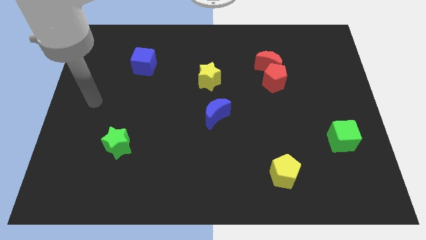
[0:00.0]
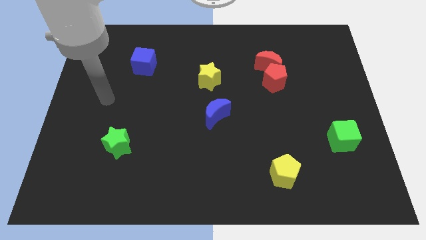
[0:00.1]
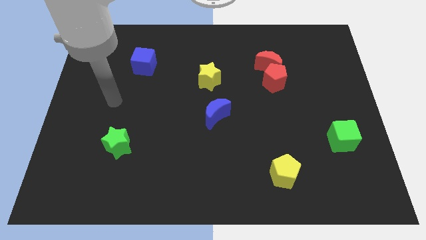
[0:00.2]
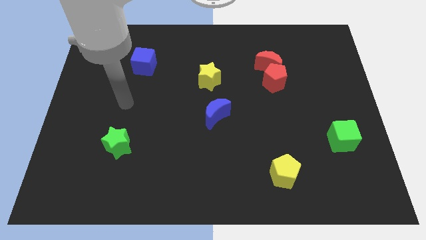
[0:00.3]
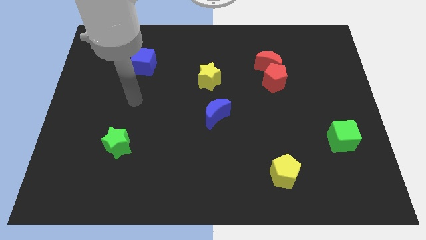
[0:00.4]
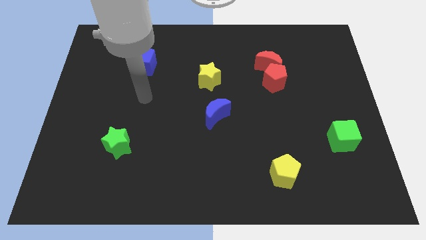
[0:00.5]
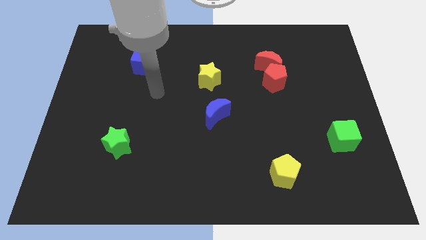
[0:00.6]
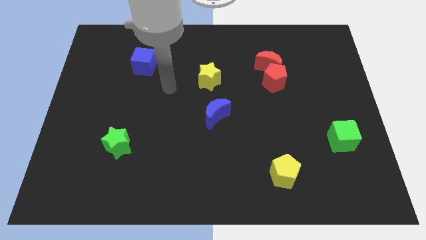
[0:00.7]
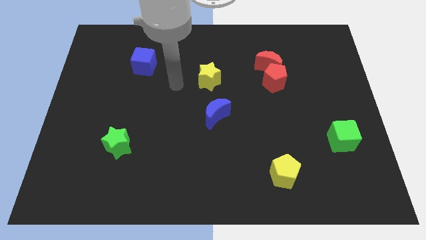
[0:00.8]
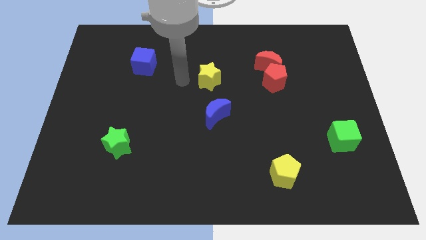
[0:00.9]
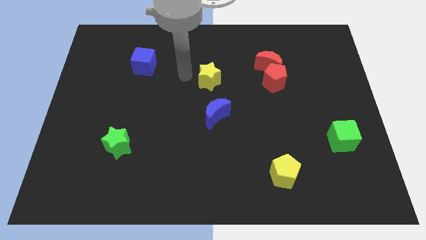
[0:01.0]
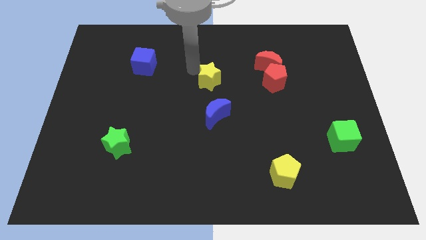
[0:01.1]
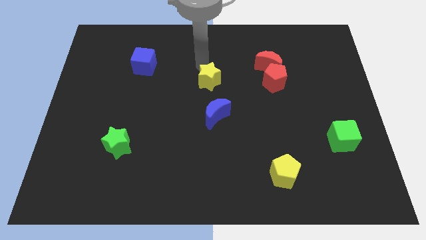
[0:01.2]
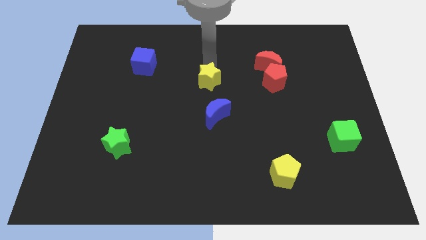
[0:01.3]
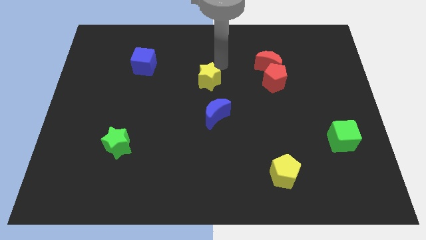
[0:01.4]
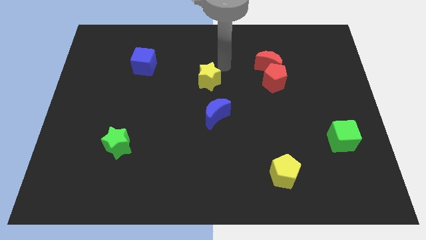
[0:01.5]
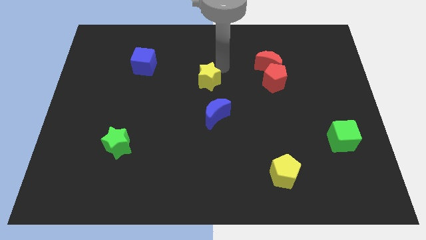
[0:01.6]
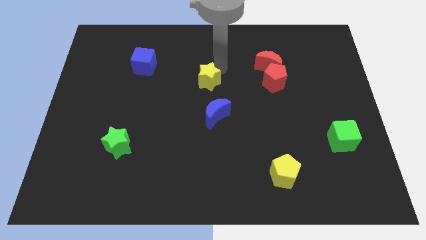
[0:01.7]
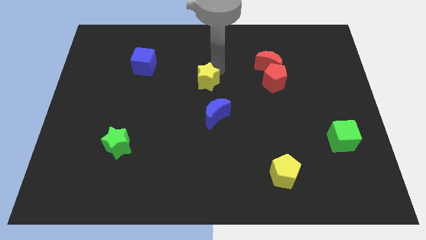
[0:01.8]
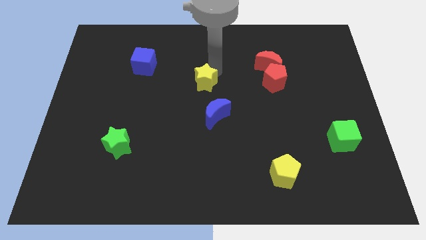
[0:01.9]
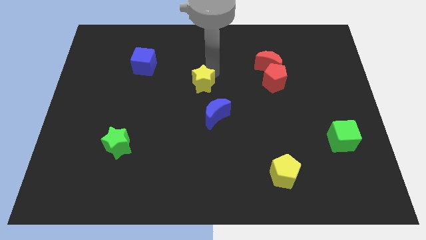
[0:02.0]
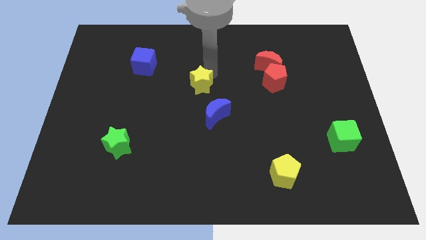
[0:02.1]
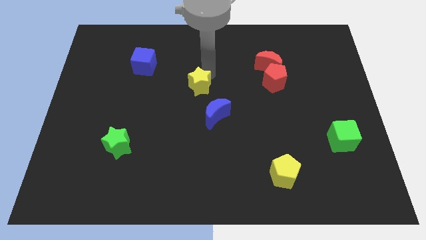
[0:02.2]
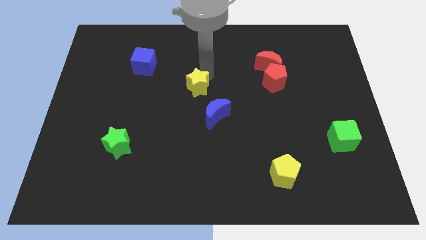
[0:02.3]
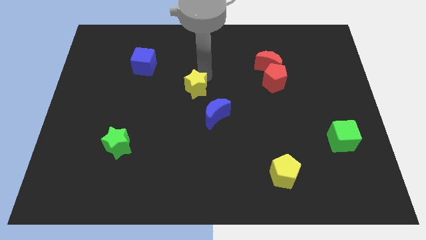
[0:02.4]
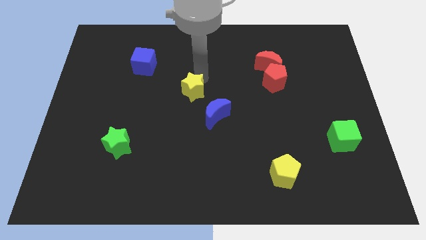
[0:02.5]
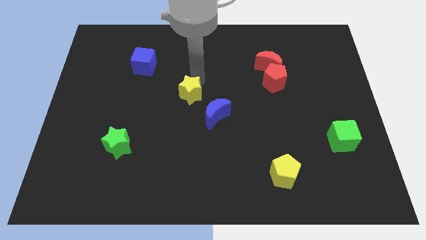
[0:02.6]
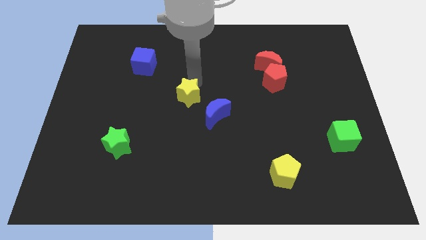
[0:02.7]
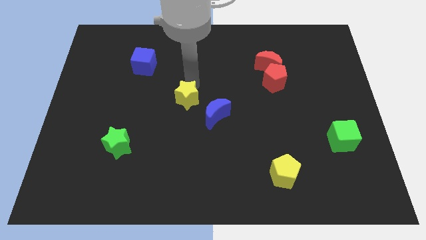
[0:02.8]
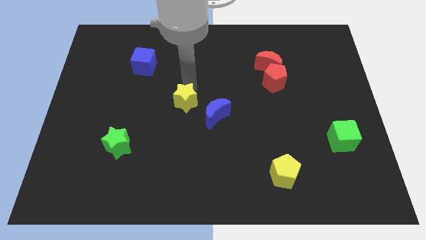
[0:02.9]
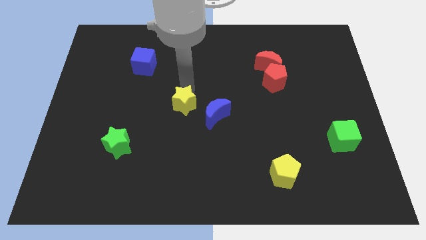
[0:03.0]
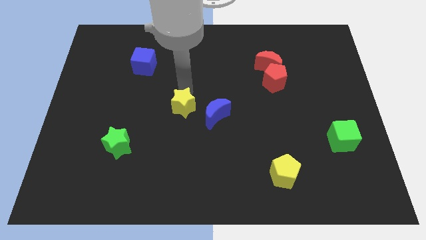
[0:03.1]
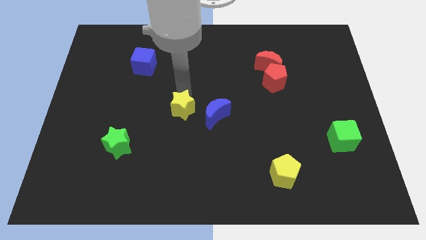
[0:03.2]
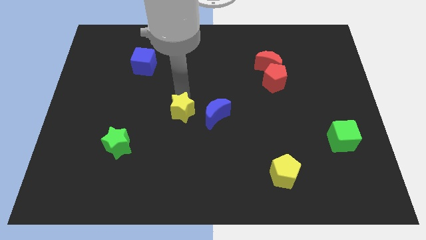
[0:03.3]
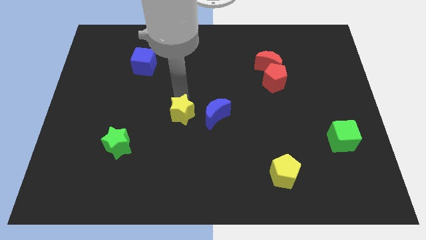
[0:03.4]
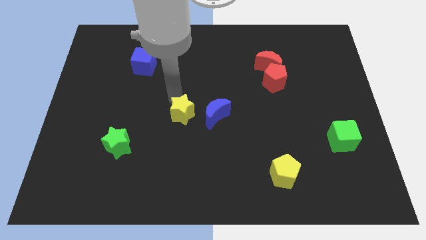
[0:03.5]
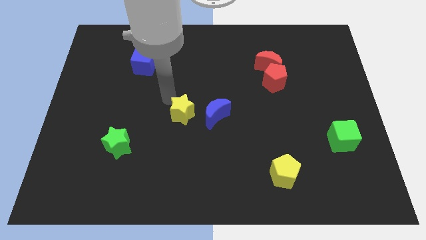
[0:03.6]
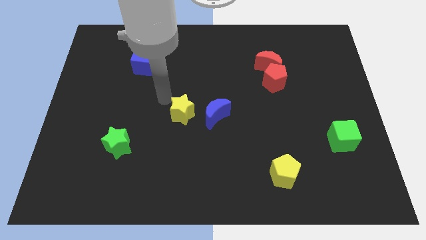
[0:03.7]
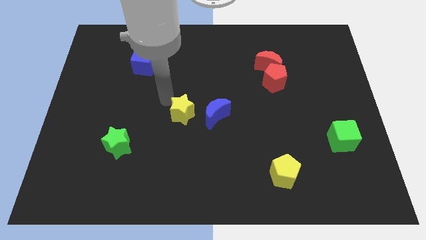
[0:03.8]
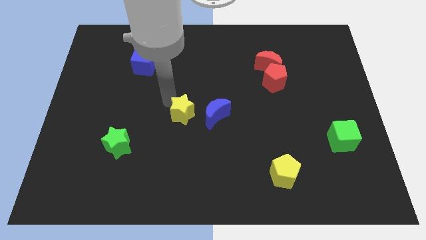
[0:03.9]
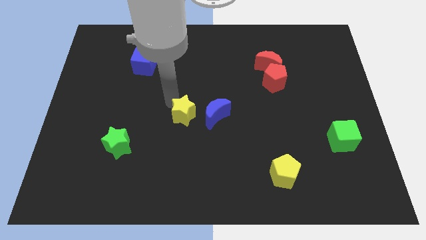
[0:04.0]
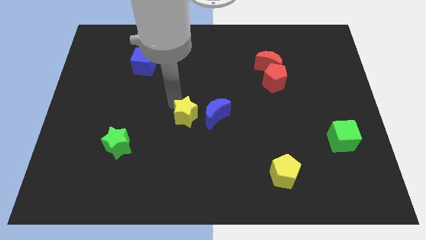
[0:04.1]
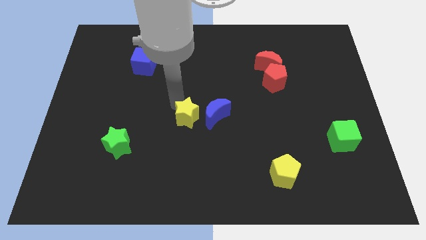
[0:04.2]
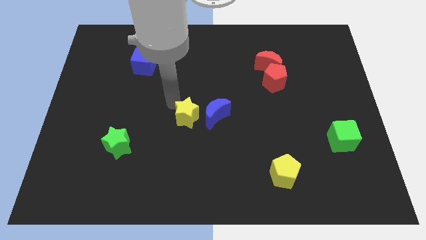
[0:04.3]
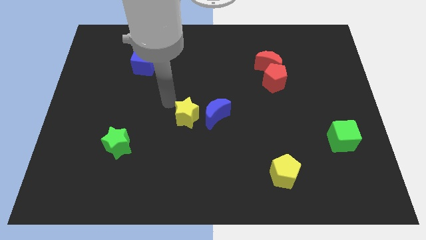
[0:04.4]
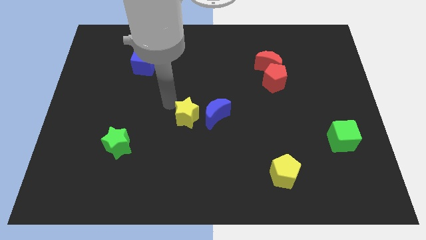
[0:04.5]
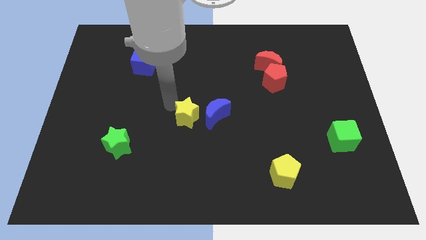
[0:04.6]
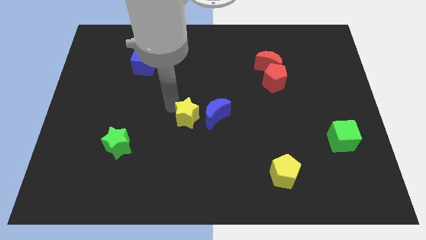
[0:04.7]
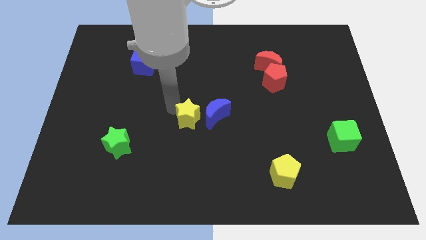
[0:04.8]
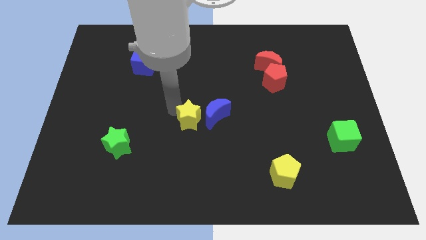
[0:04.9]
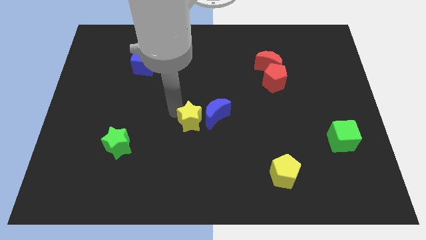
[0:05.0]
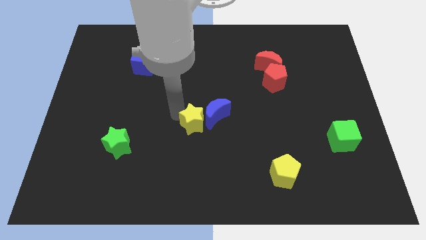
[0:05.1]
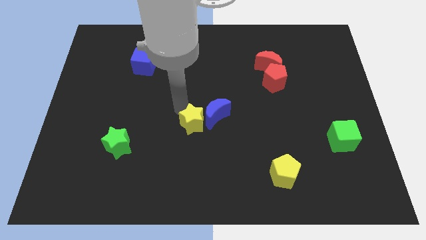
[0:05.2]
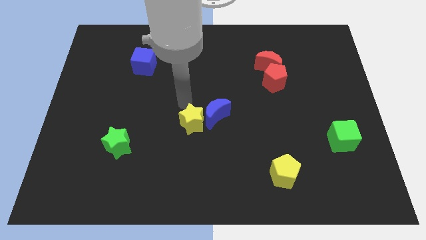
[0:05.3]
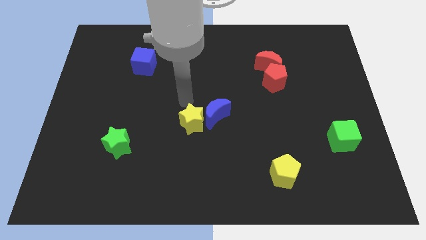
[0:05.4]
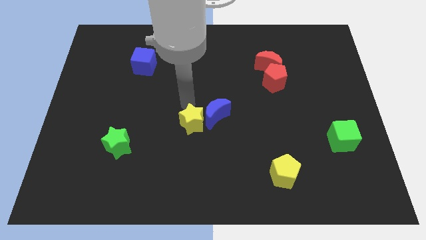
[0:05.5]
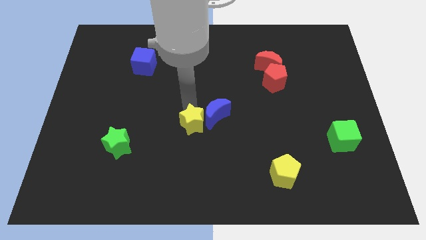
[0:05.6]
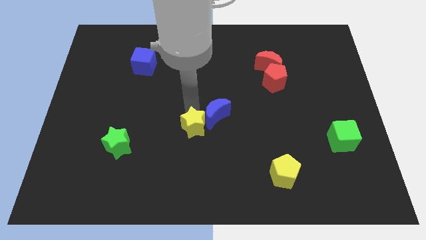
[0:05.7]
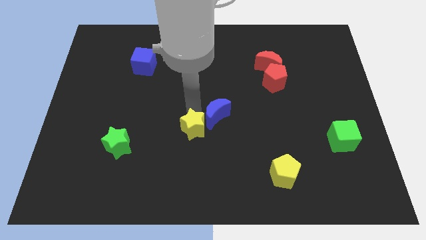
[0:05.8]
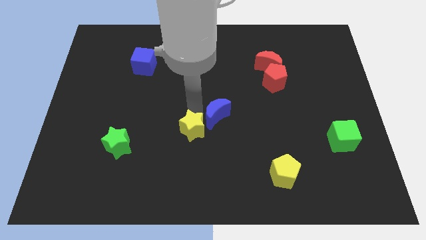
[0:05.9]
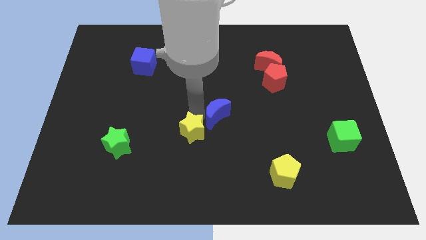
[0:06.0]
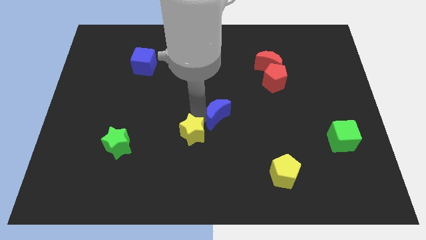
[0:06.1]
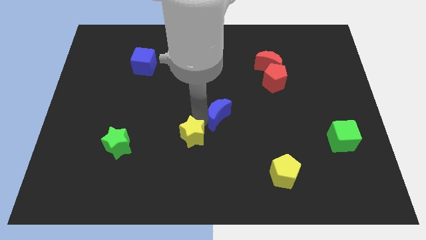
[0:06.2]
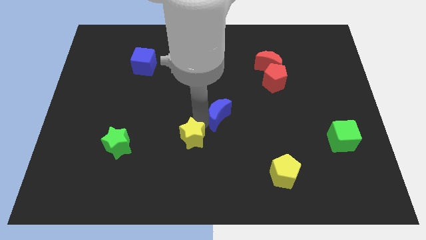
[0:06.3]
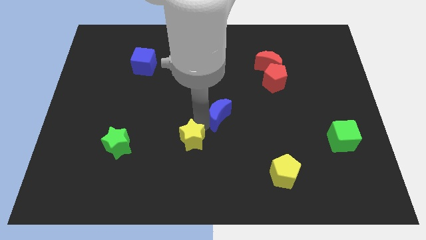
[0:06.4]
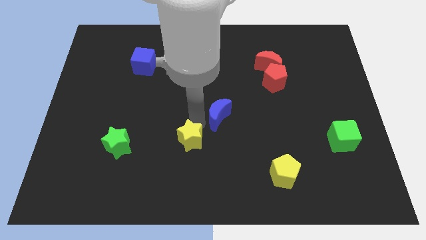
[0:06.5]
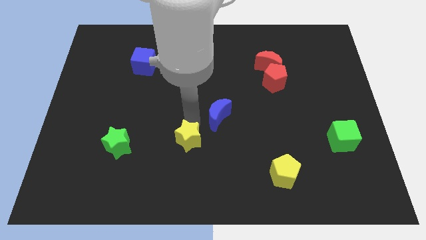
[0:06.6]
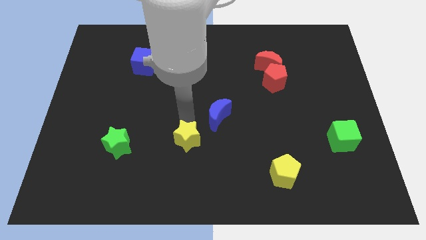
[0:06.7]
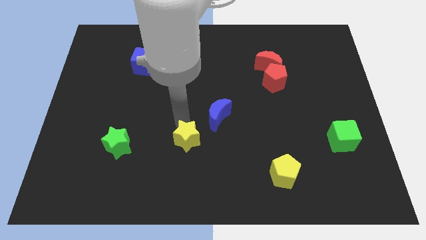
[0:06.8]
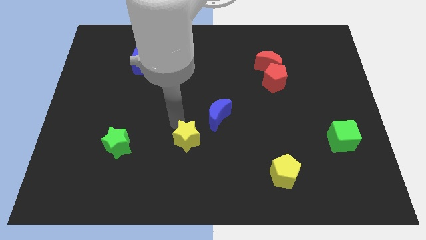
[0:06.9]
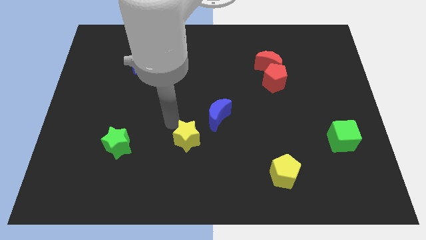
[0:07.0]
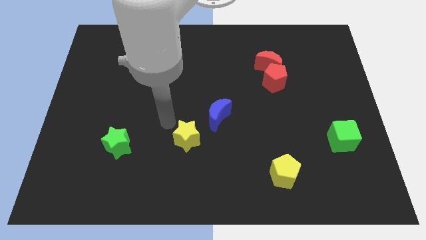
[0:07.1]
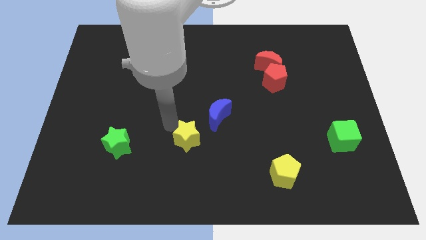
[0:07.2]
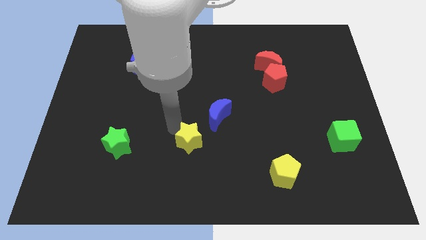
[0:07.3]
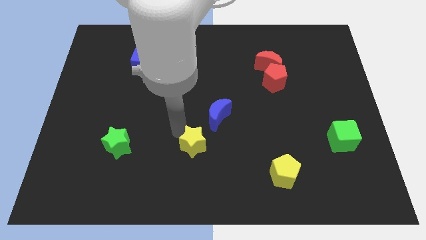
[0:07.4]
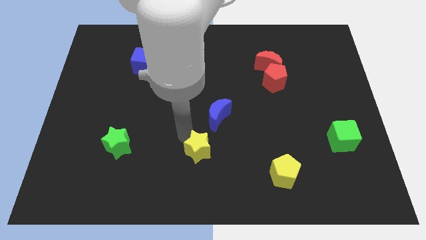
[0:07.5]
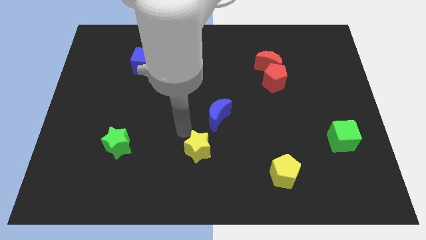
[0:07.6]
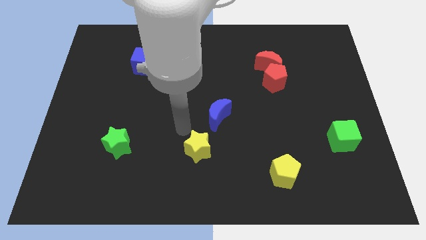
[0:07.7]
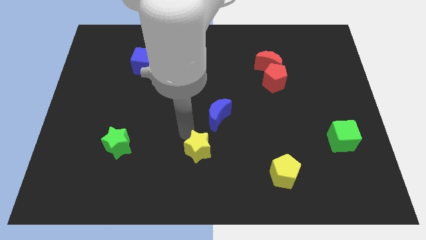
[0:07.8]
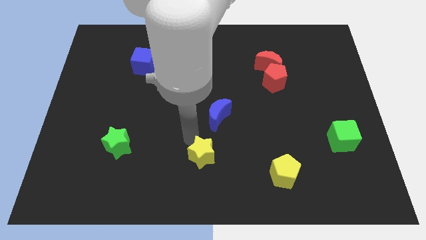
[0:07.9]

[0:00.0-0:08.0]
move the yellow star to the bottom side
